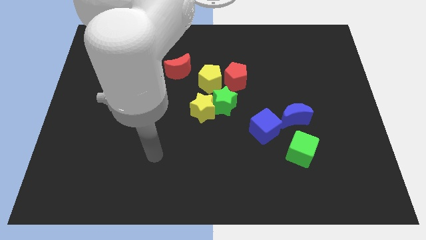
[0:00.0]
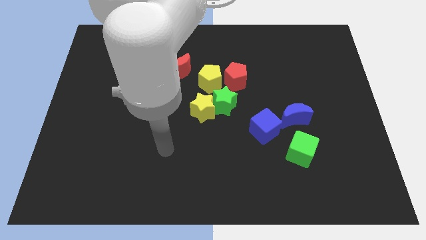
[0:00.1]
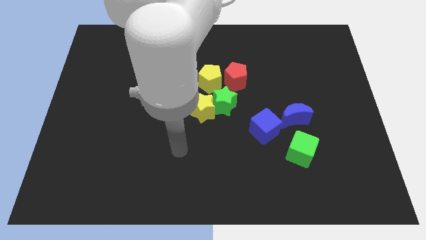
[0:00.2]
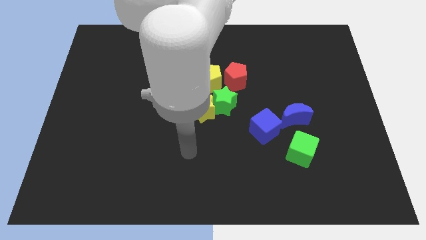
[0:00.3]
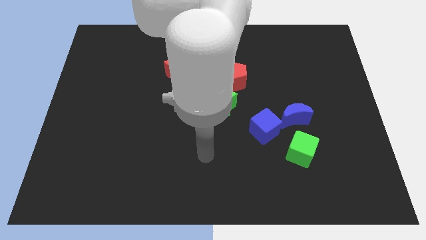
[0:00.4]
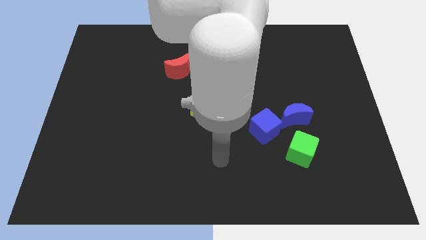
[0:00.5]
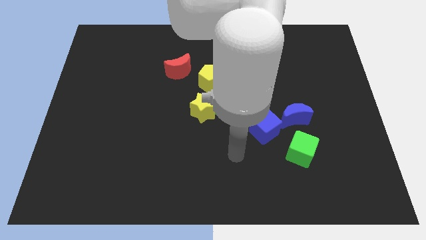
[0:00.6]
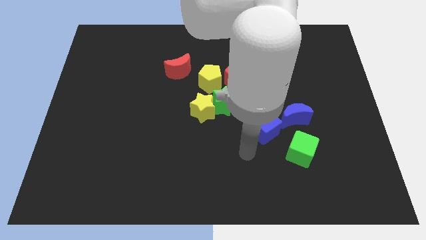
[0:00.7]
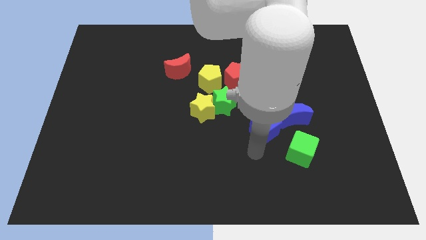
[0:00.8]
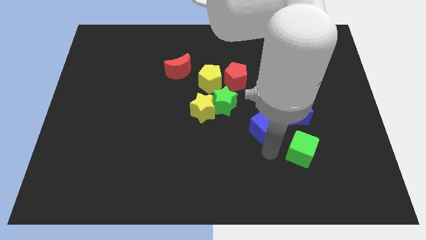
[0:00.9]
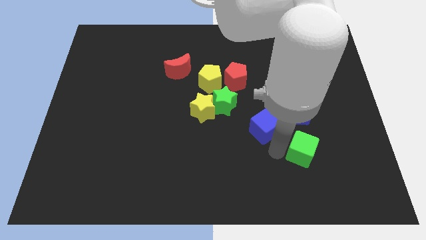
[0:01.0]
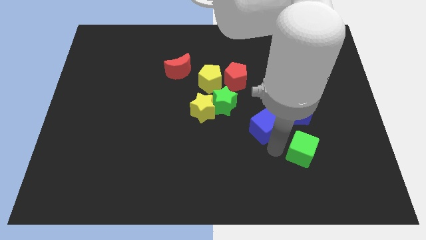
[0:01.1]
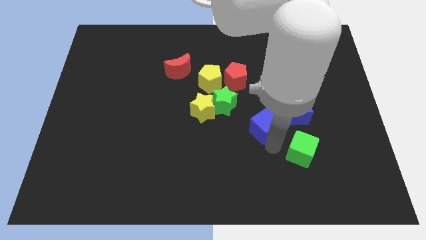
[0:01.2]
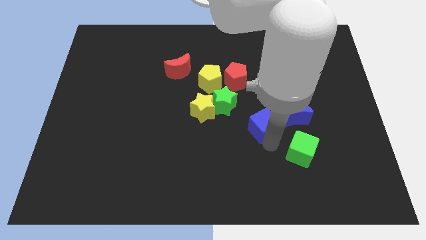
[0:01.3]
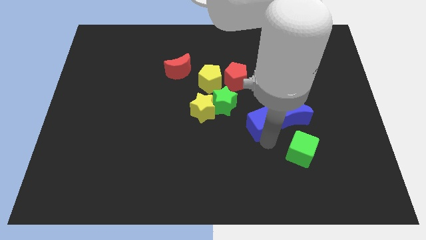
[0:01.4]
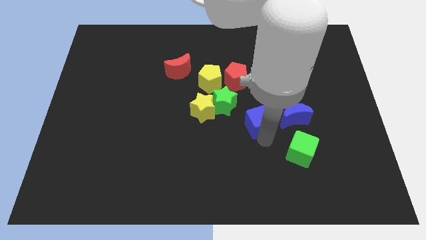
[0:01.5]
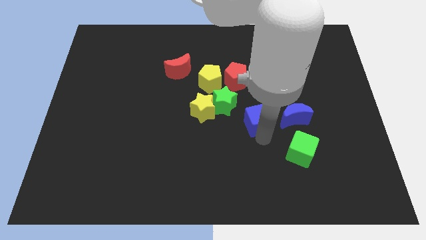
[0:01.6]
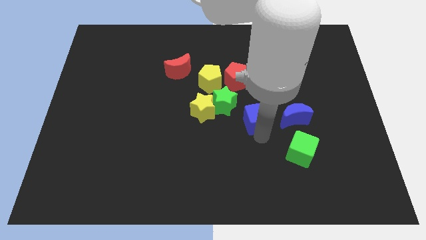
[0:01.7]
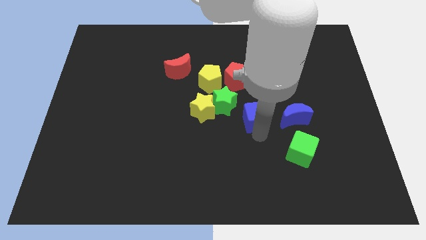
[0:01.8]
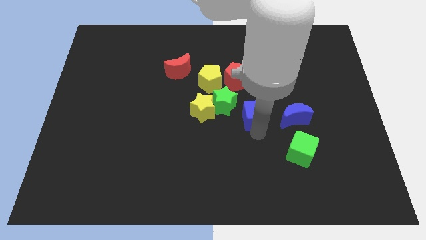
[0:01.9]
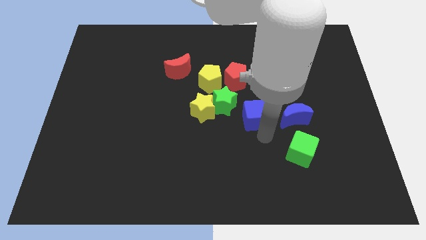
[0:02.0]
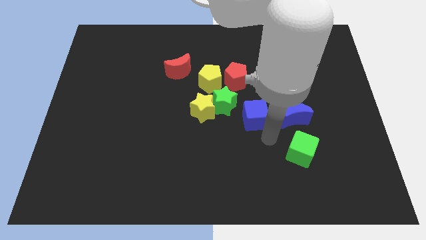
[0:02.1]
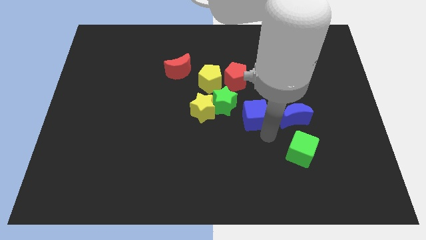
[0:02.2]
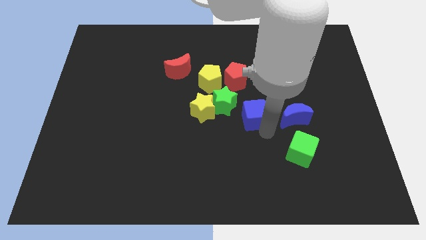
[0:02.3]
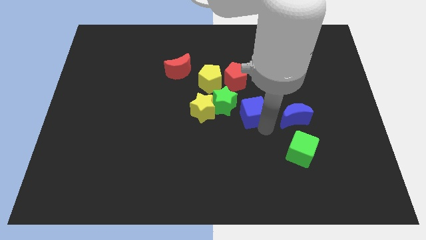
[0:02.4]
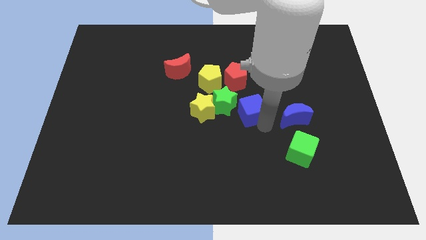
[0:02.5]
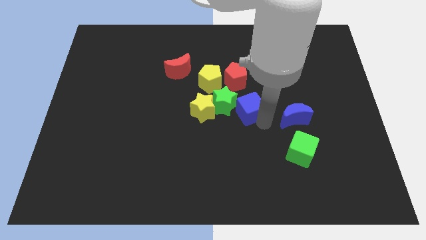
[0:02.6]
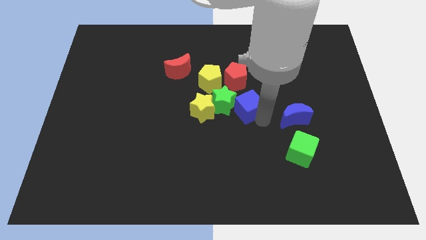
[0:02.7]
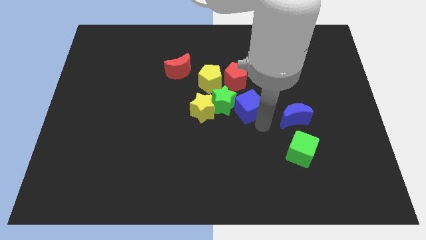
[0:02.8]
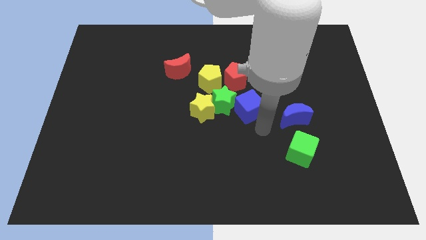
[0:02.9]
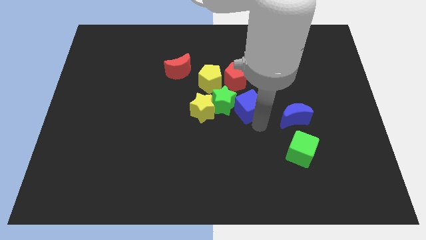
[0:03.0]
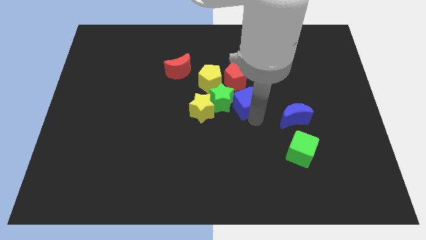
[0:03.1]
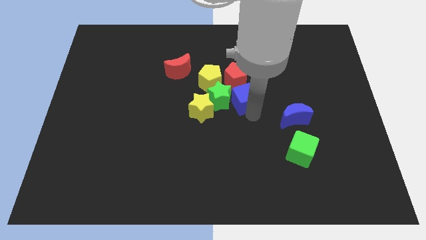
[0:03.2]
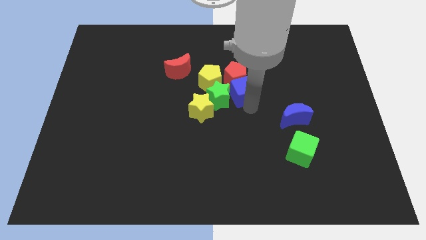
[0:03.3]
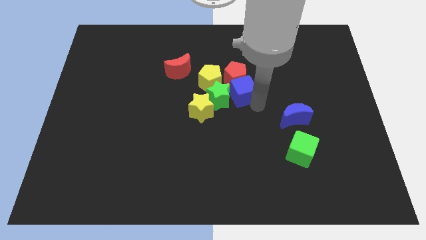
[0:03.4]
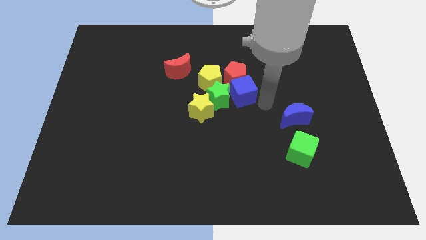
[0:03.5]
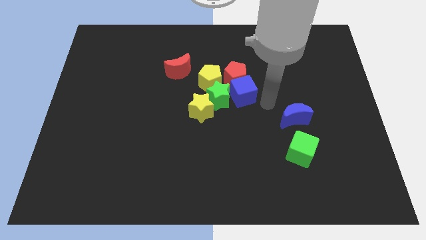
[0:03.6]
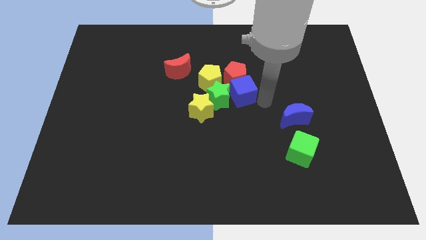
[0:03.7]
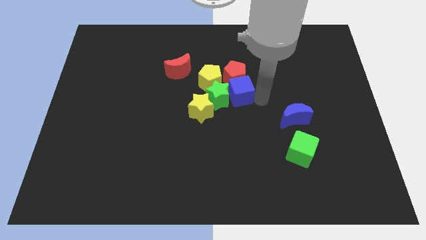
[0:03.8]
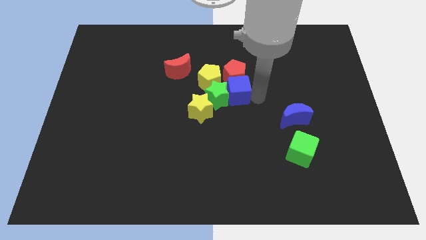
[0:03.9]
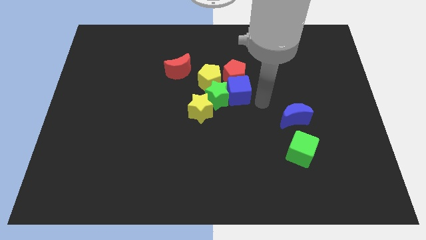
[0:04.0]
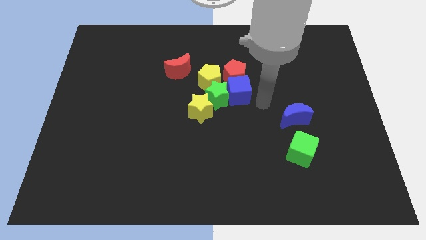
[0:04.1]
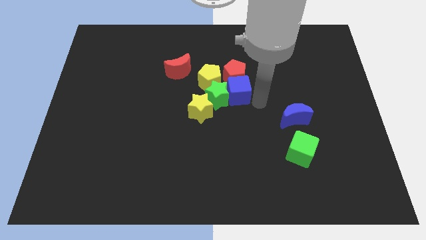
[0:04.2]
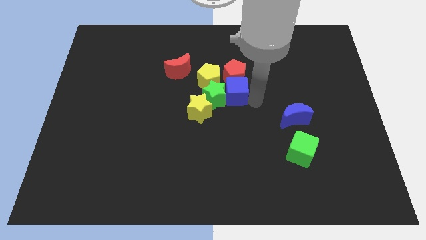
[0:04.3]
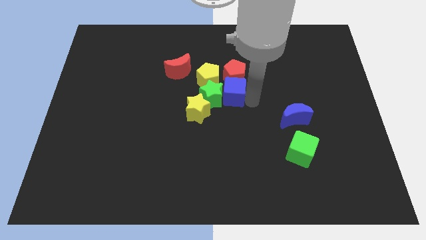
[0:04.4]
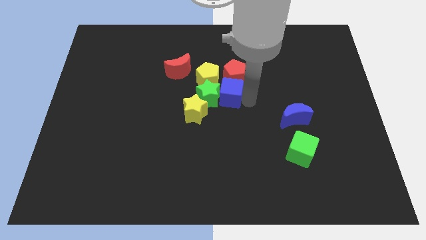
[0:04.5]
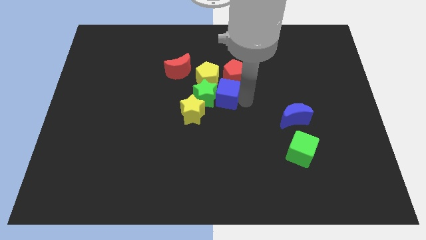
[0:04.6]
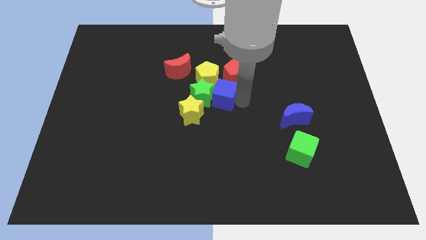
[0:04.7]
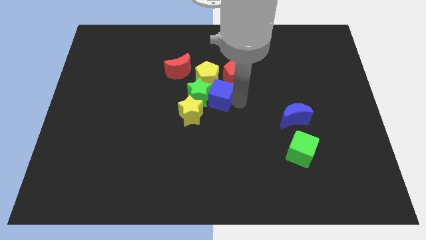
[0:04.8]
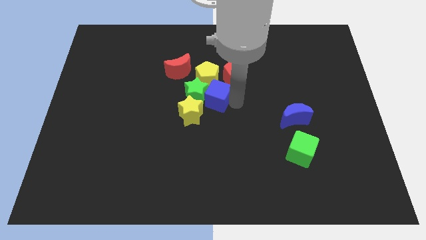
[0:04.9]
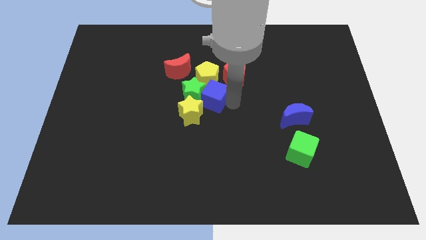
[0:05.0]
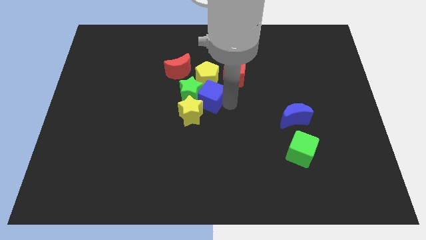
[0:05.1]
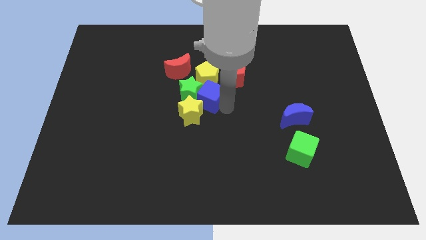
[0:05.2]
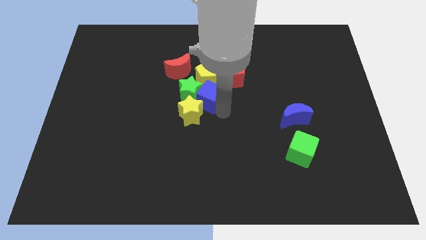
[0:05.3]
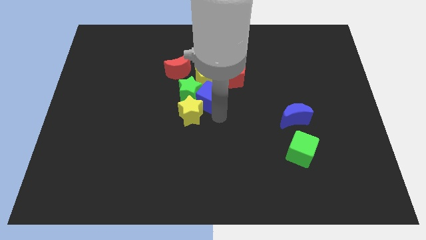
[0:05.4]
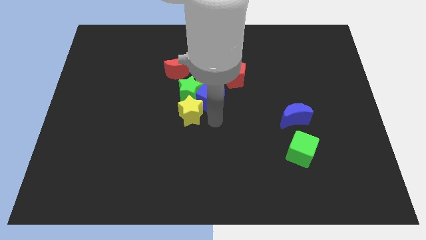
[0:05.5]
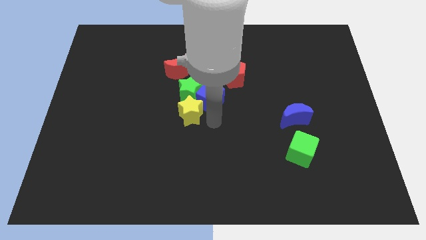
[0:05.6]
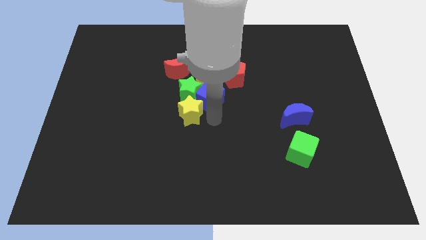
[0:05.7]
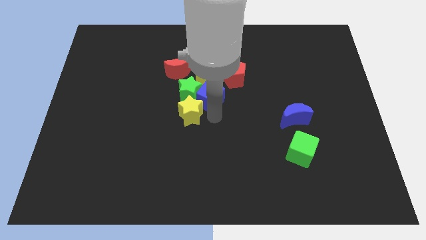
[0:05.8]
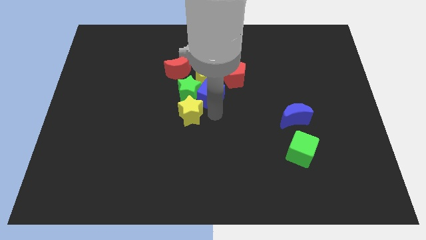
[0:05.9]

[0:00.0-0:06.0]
push the blue cube next to the yellow pentagon

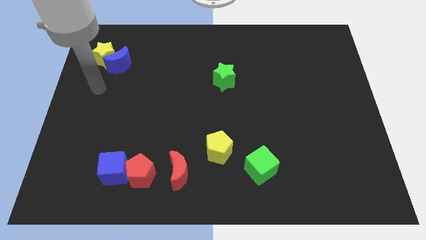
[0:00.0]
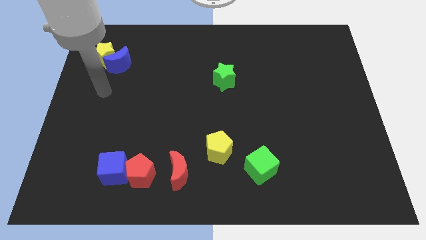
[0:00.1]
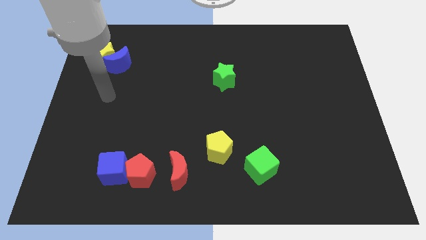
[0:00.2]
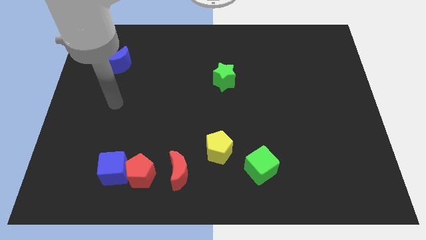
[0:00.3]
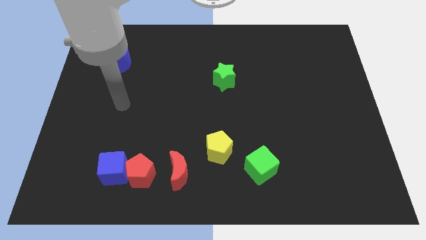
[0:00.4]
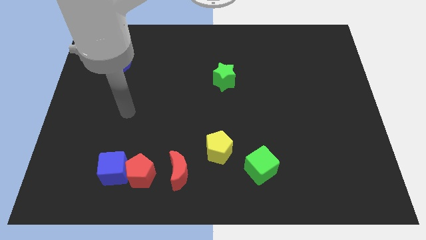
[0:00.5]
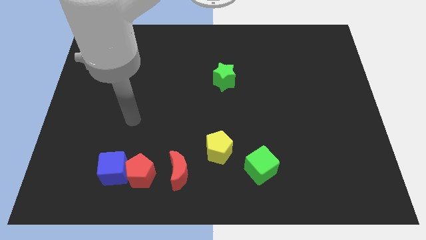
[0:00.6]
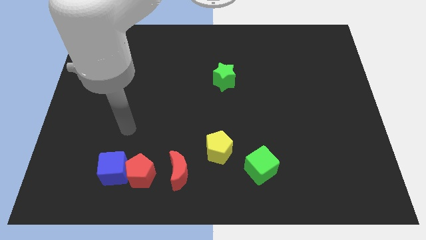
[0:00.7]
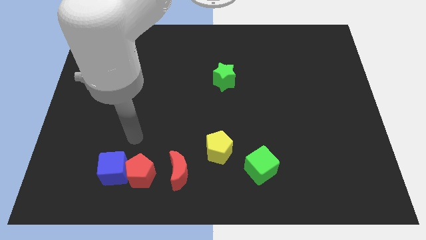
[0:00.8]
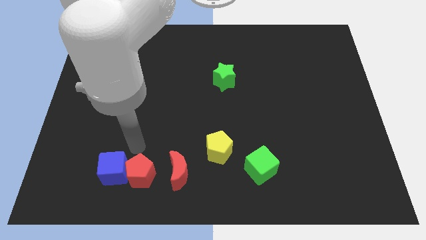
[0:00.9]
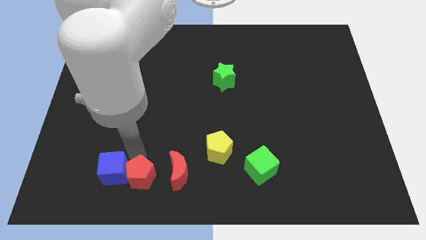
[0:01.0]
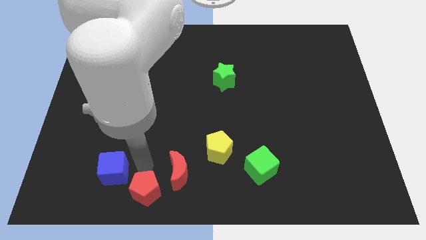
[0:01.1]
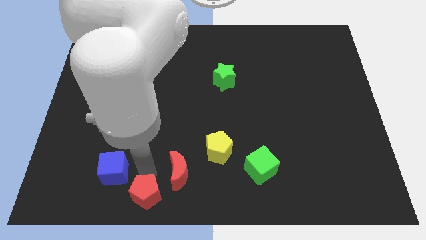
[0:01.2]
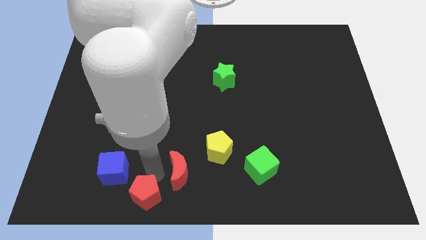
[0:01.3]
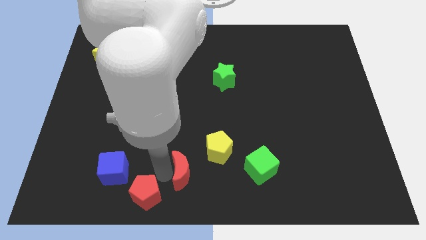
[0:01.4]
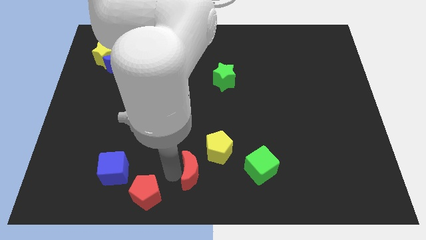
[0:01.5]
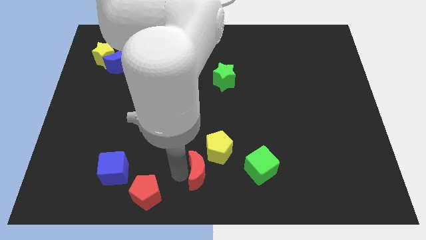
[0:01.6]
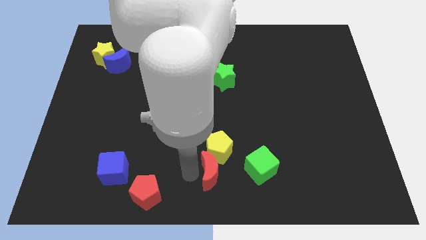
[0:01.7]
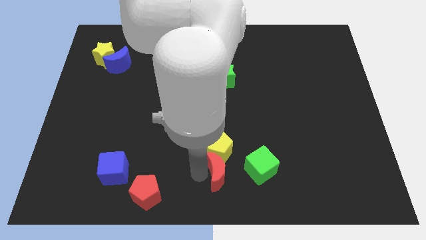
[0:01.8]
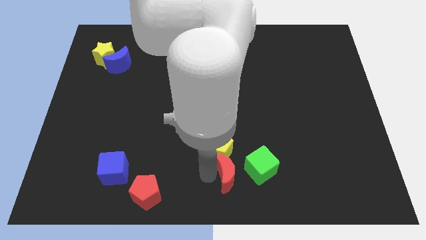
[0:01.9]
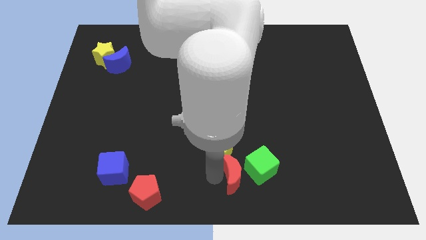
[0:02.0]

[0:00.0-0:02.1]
push the red moon towards the green cube
